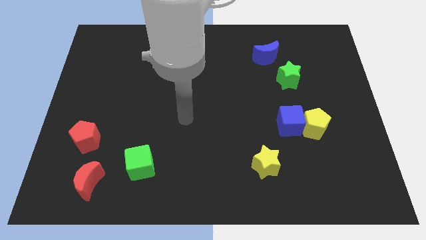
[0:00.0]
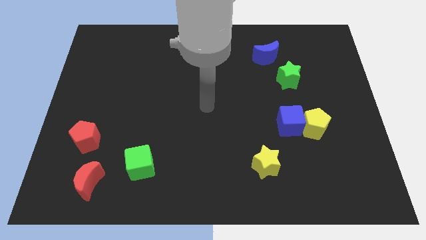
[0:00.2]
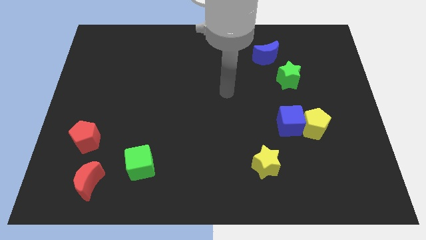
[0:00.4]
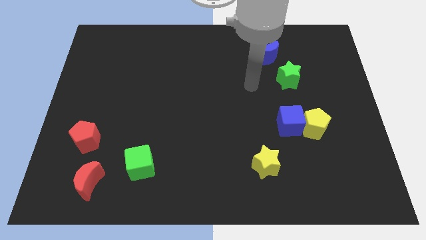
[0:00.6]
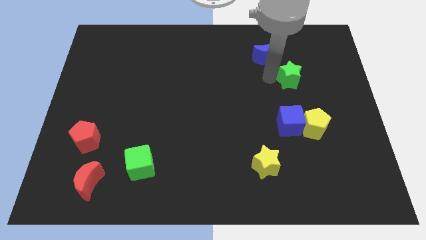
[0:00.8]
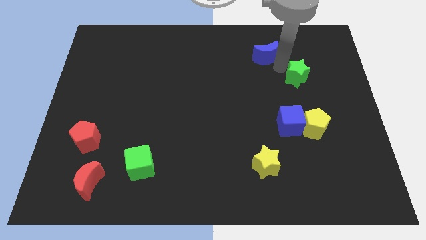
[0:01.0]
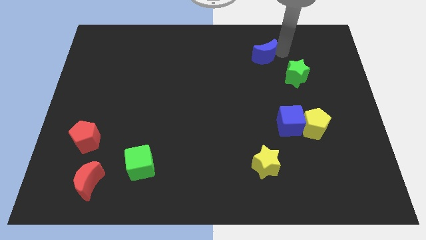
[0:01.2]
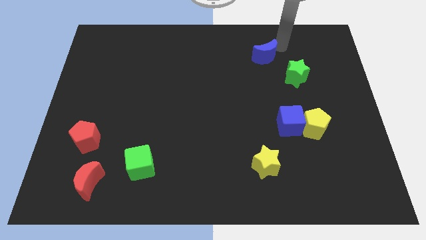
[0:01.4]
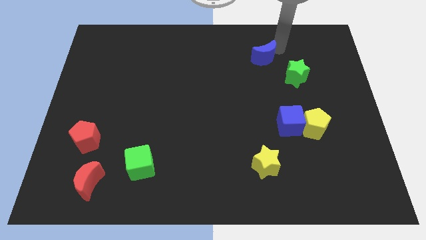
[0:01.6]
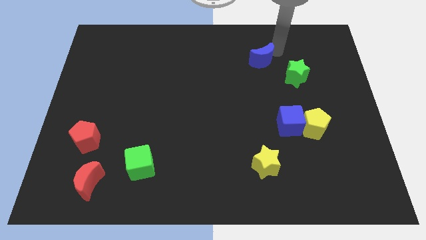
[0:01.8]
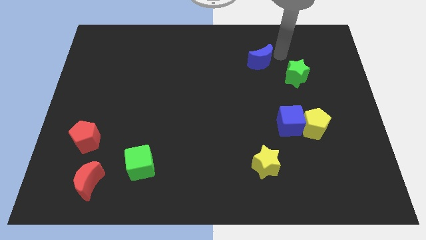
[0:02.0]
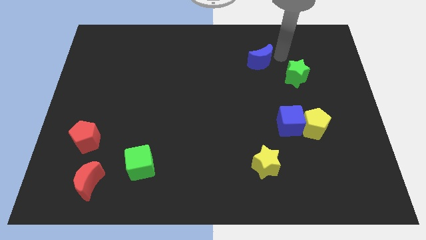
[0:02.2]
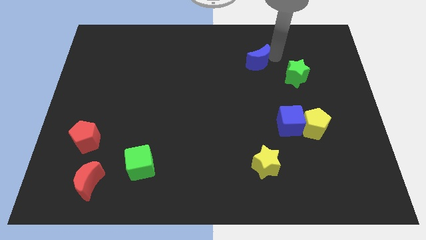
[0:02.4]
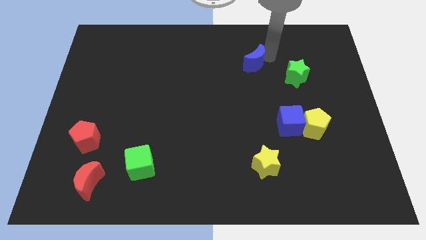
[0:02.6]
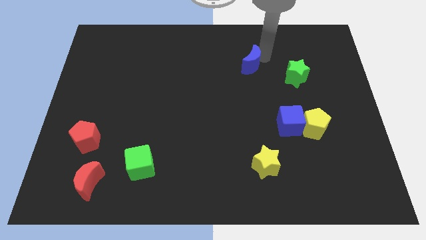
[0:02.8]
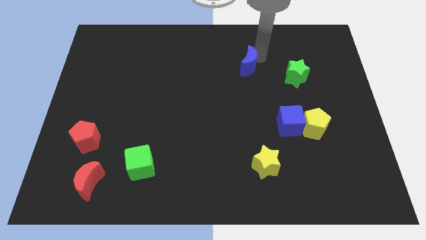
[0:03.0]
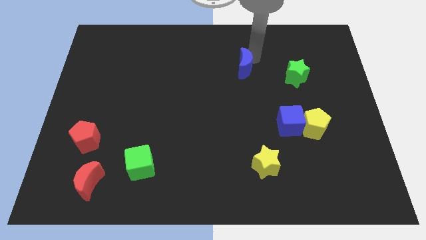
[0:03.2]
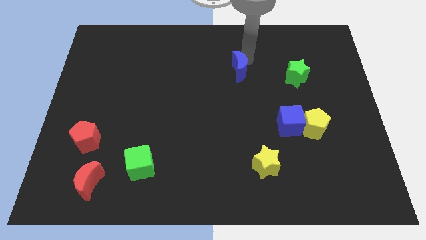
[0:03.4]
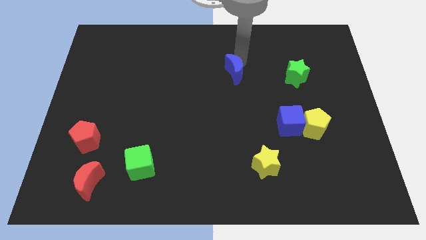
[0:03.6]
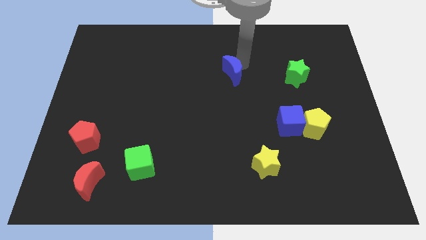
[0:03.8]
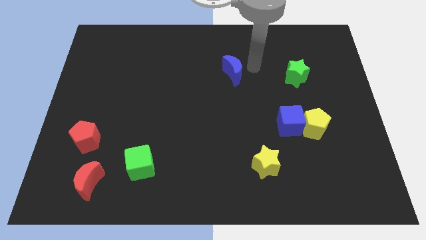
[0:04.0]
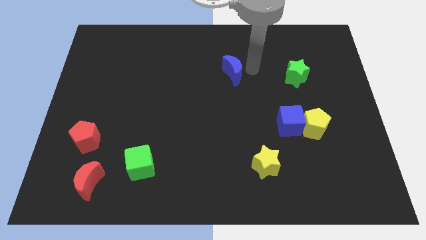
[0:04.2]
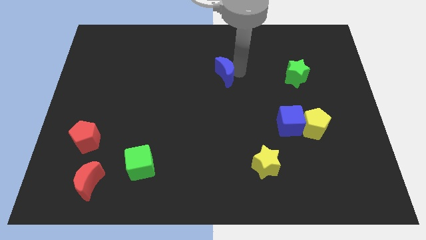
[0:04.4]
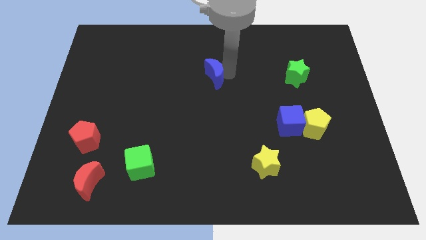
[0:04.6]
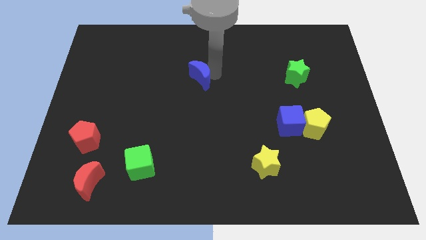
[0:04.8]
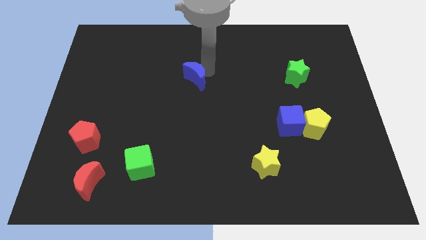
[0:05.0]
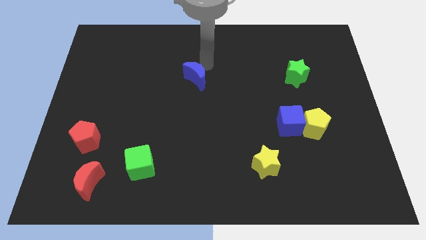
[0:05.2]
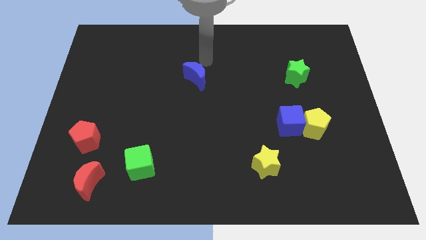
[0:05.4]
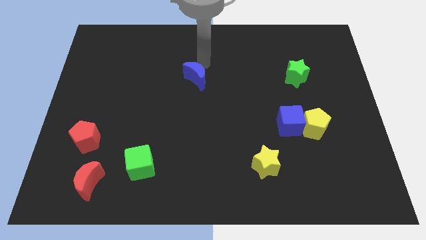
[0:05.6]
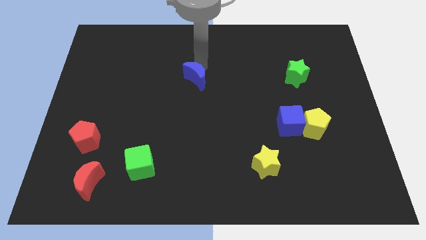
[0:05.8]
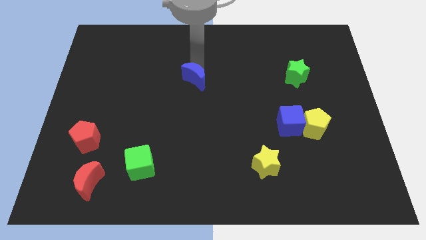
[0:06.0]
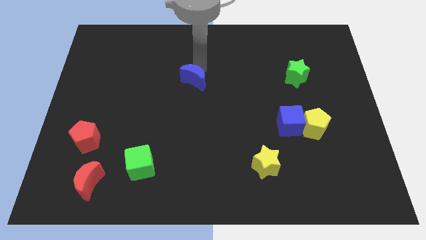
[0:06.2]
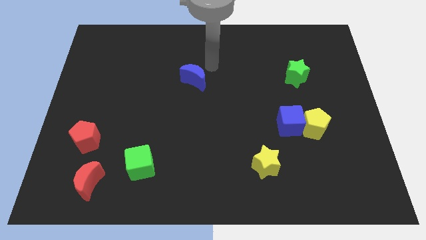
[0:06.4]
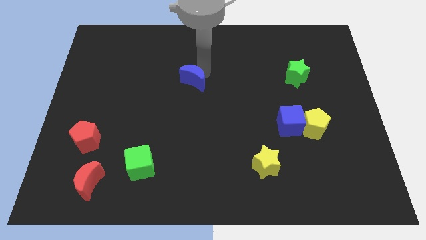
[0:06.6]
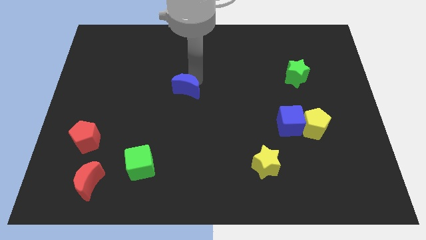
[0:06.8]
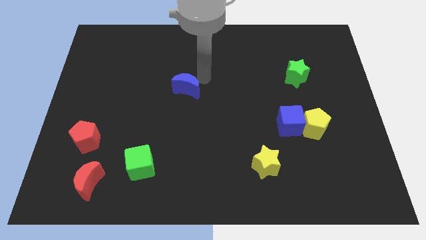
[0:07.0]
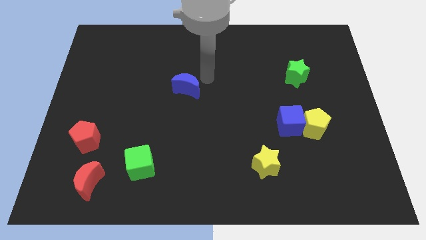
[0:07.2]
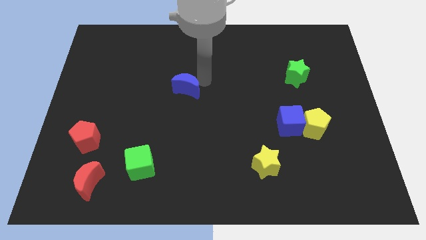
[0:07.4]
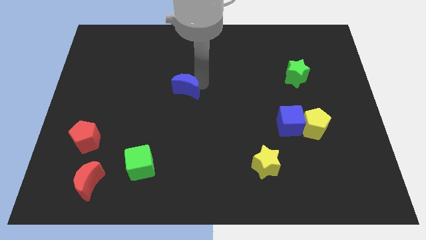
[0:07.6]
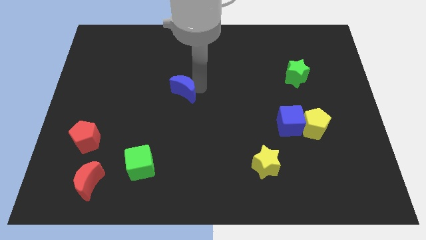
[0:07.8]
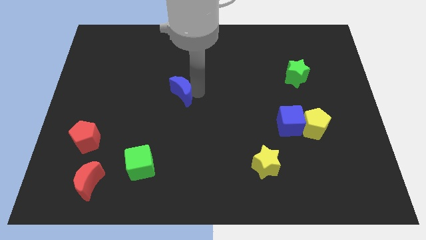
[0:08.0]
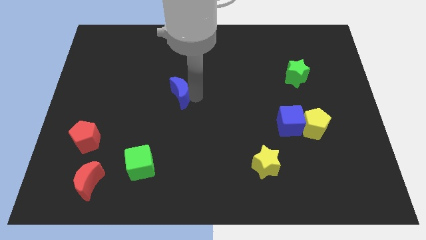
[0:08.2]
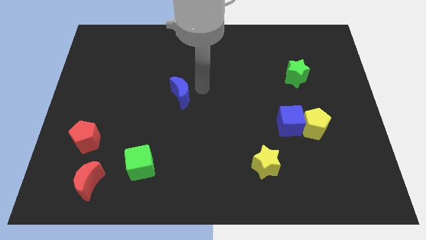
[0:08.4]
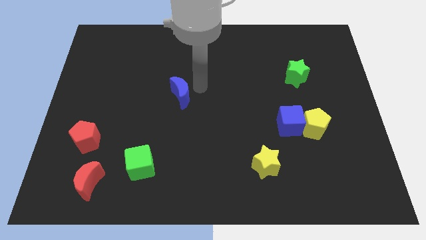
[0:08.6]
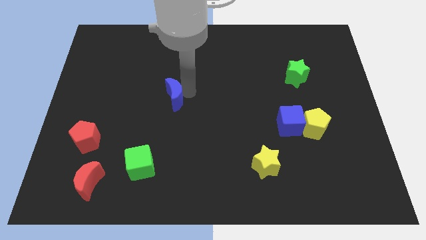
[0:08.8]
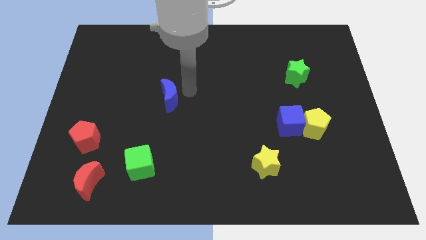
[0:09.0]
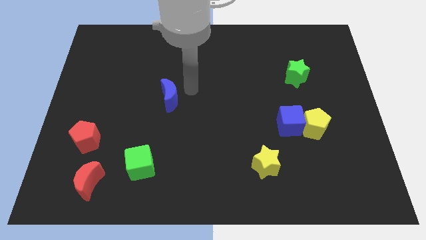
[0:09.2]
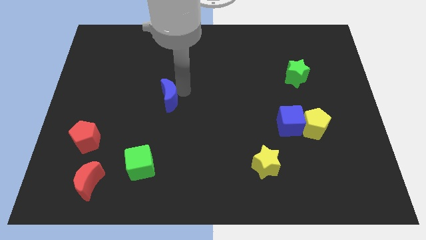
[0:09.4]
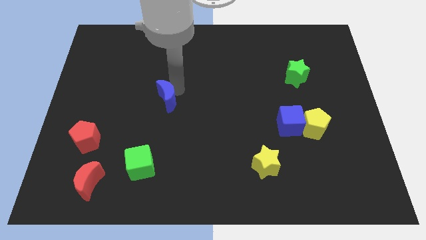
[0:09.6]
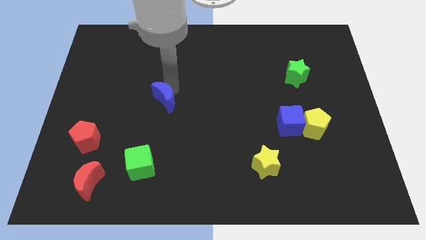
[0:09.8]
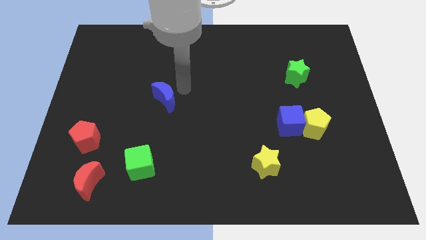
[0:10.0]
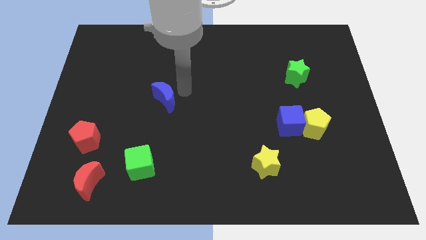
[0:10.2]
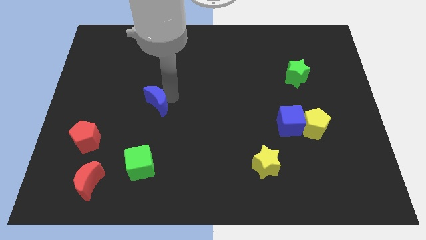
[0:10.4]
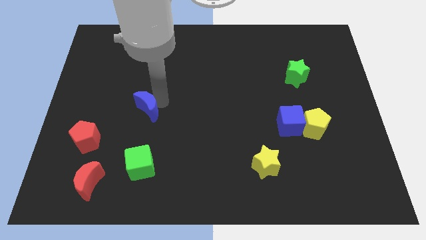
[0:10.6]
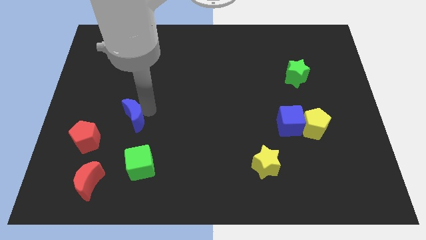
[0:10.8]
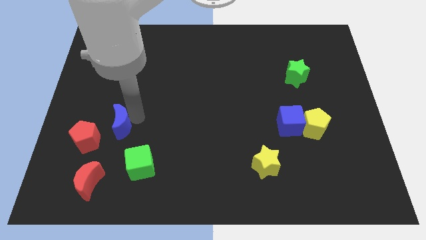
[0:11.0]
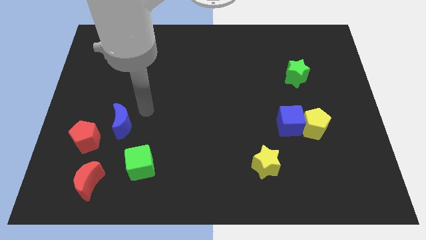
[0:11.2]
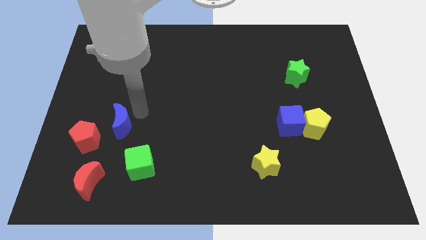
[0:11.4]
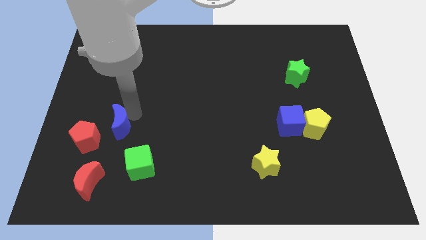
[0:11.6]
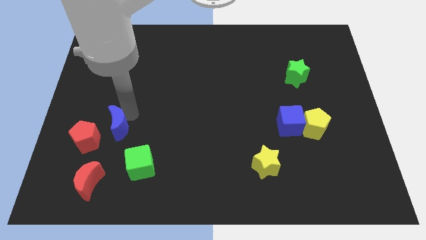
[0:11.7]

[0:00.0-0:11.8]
slide the blue moon above the red moon

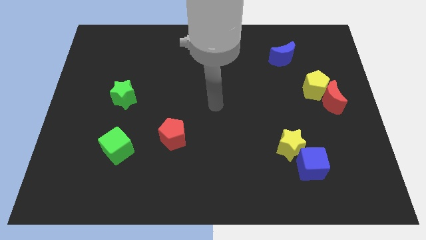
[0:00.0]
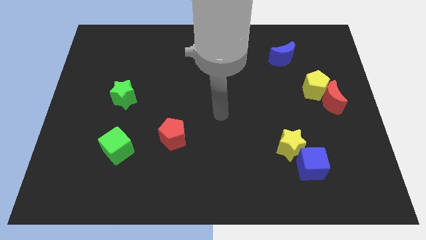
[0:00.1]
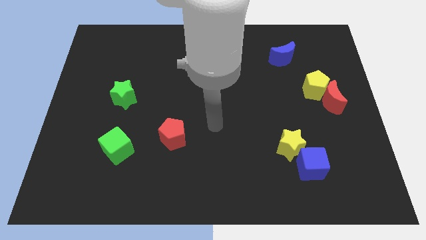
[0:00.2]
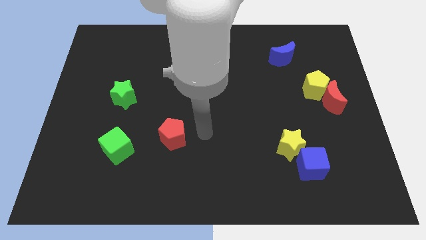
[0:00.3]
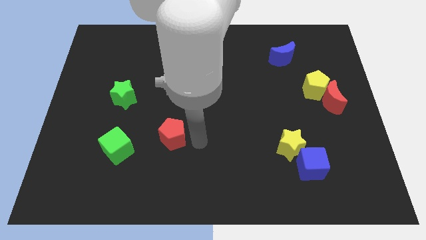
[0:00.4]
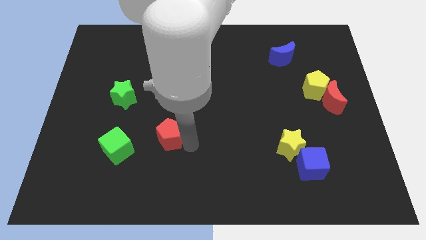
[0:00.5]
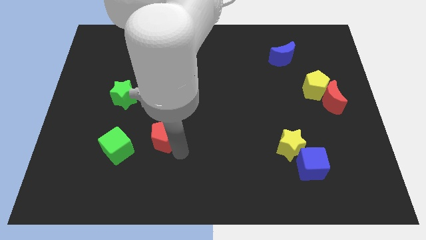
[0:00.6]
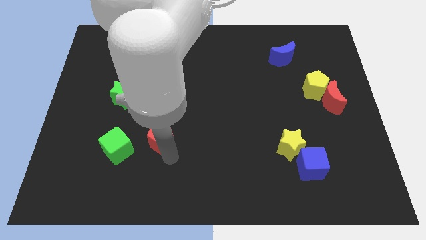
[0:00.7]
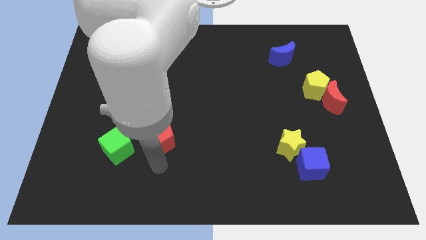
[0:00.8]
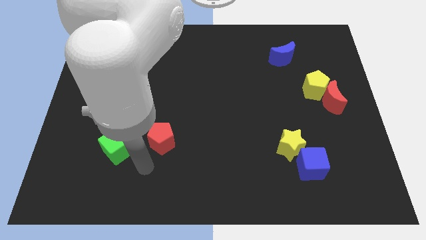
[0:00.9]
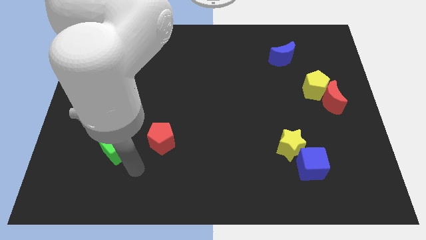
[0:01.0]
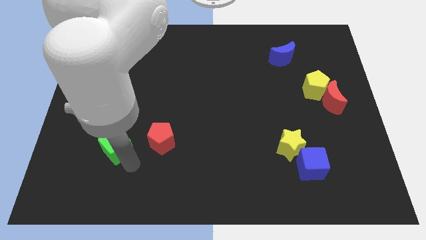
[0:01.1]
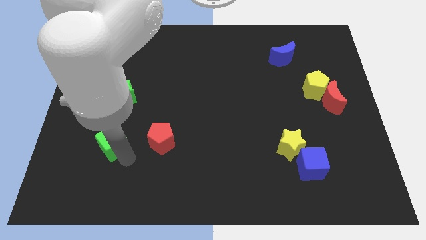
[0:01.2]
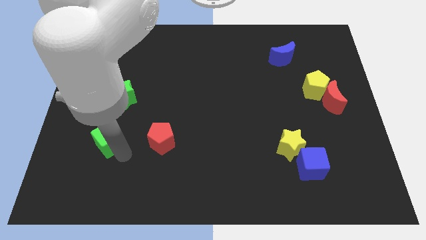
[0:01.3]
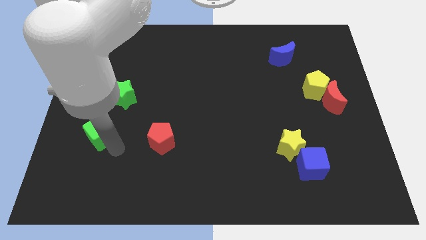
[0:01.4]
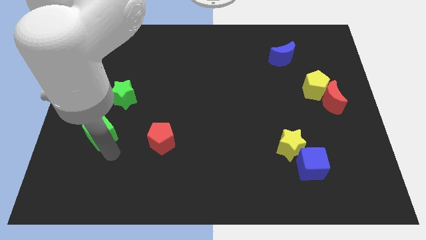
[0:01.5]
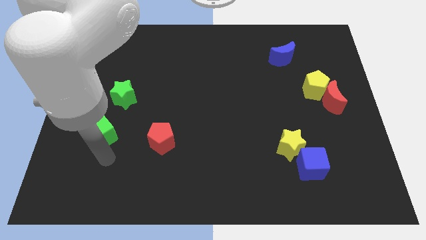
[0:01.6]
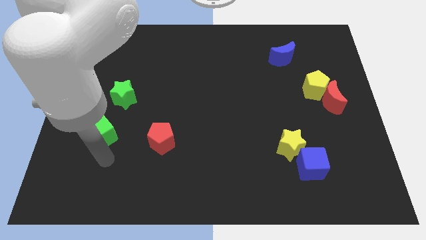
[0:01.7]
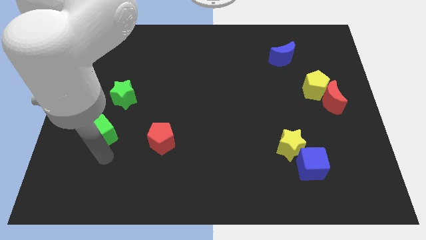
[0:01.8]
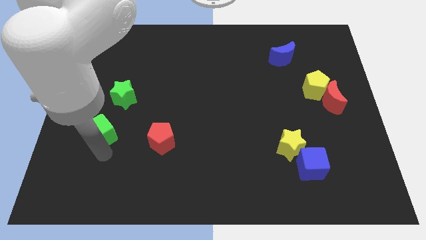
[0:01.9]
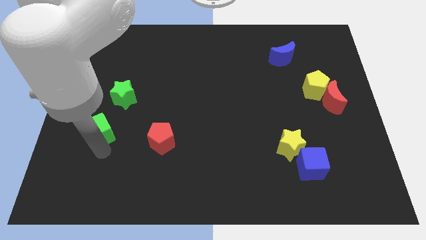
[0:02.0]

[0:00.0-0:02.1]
push the green cube diagonally down and to the left of the green star
